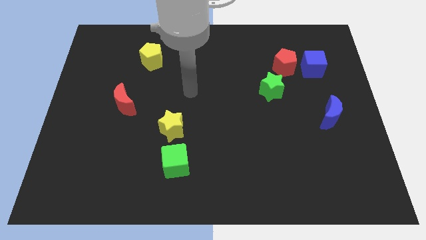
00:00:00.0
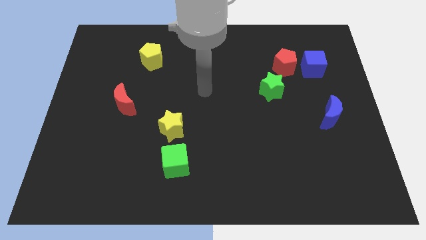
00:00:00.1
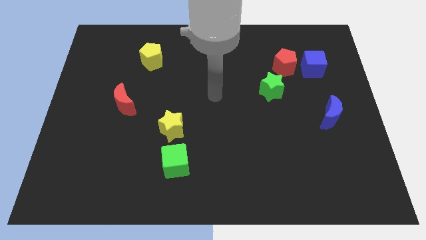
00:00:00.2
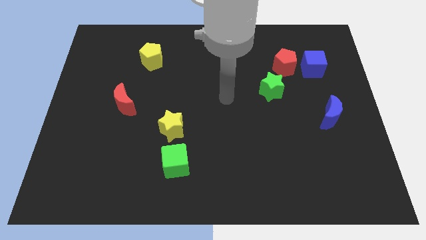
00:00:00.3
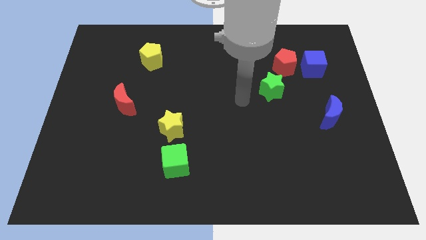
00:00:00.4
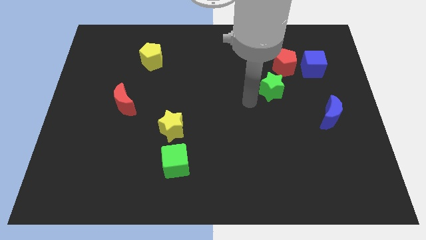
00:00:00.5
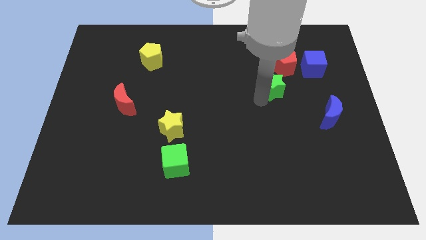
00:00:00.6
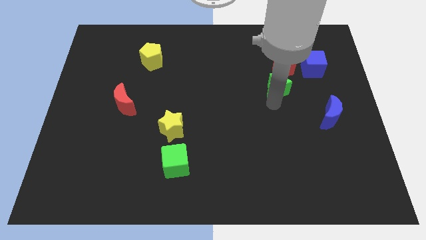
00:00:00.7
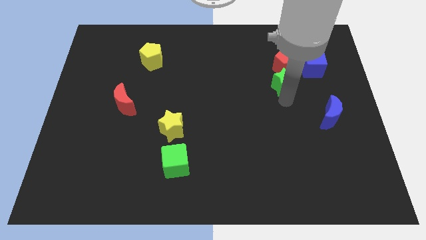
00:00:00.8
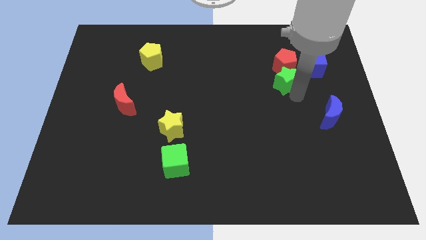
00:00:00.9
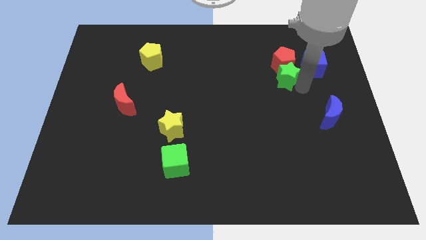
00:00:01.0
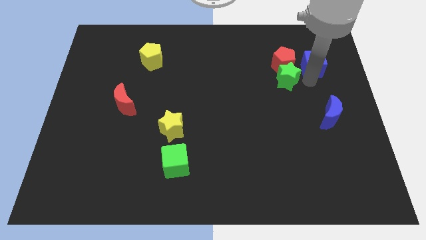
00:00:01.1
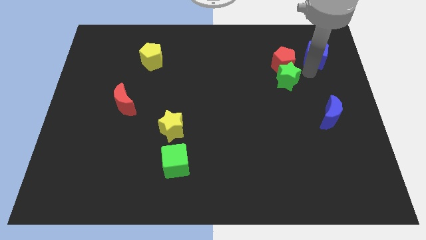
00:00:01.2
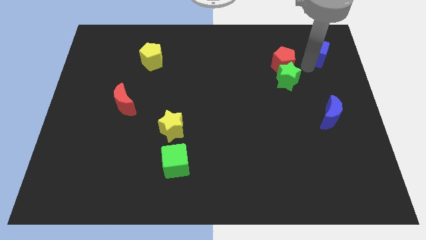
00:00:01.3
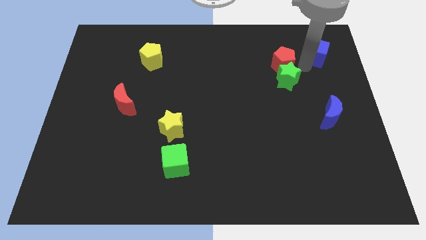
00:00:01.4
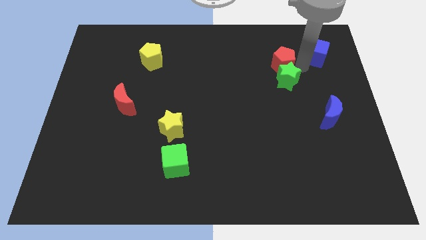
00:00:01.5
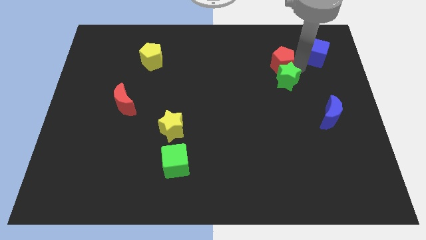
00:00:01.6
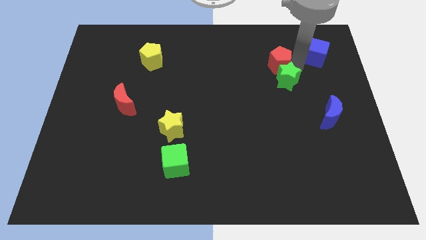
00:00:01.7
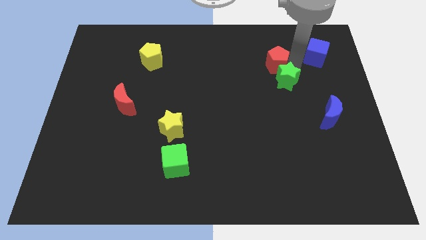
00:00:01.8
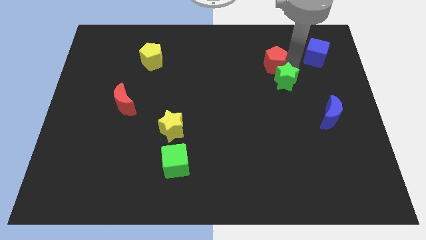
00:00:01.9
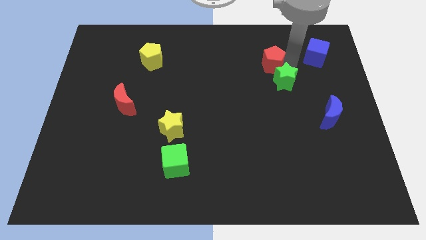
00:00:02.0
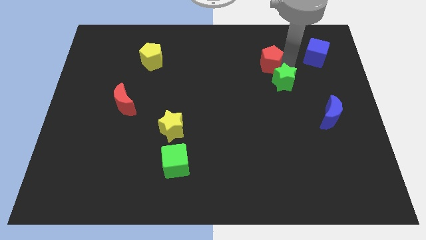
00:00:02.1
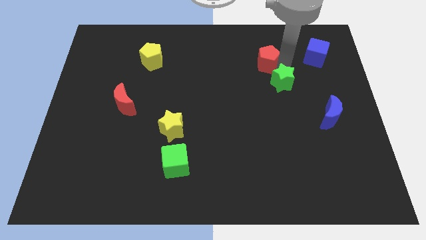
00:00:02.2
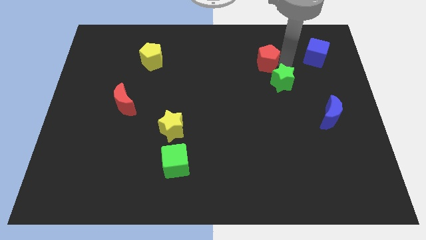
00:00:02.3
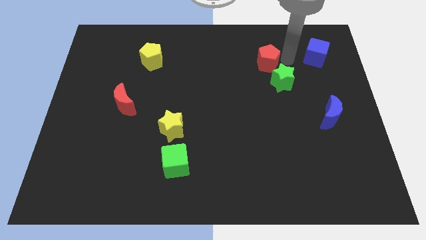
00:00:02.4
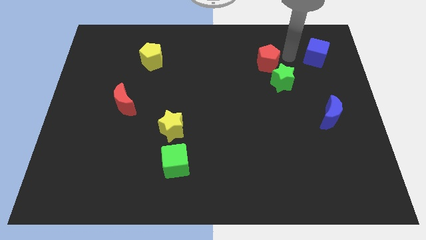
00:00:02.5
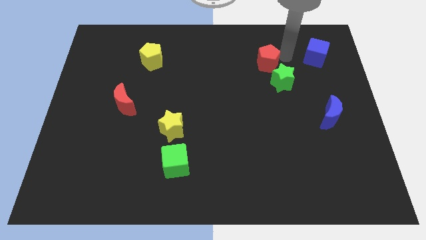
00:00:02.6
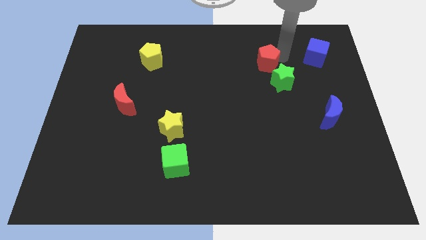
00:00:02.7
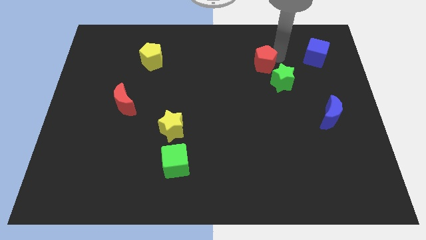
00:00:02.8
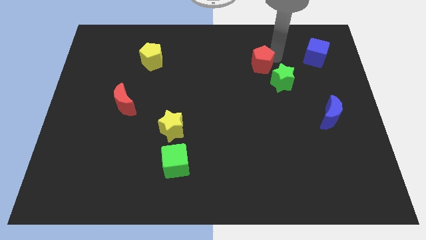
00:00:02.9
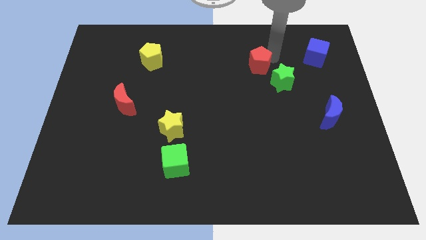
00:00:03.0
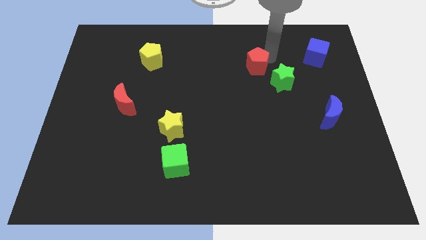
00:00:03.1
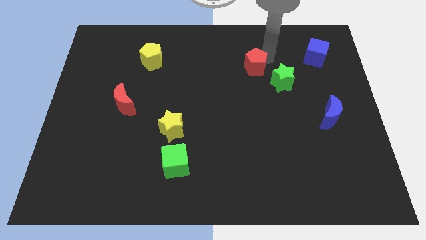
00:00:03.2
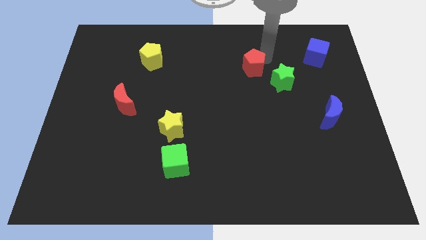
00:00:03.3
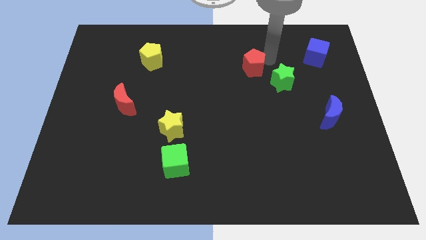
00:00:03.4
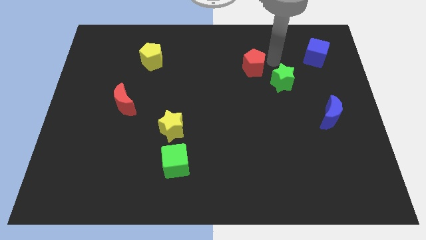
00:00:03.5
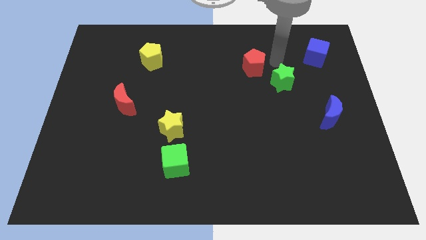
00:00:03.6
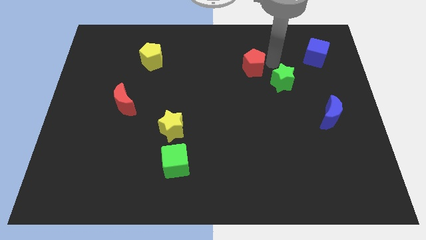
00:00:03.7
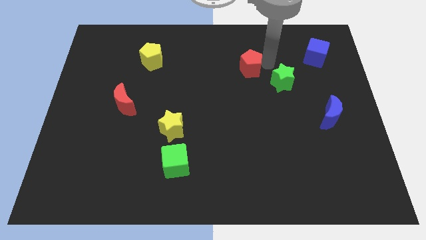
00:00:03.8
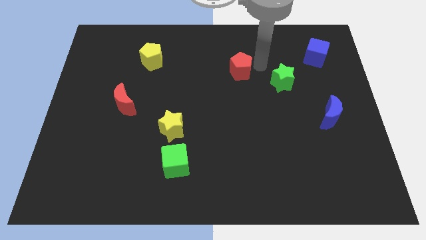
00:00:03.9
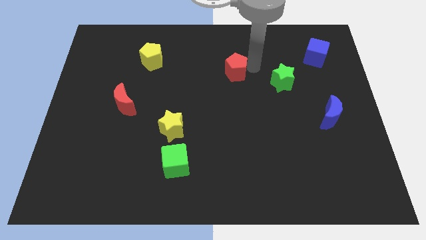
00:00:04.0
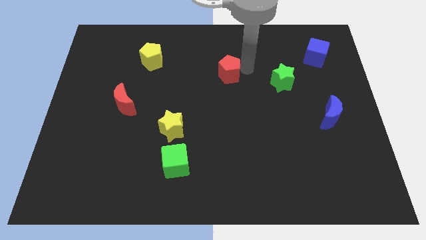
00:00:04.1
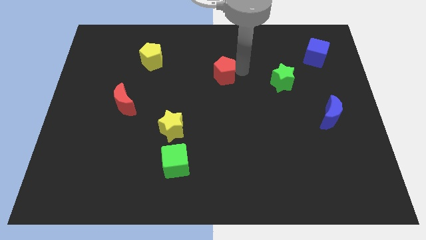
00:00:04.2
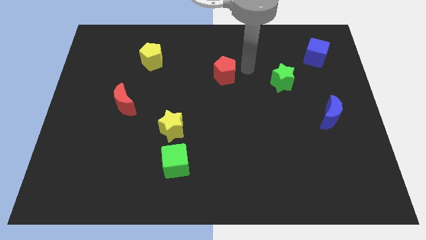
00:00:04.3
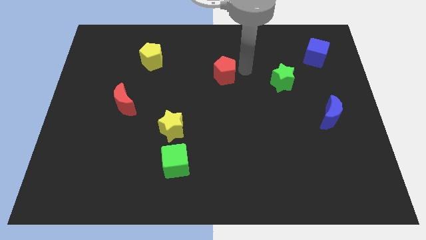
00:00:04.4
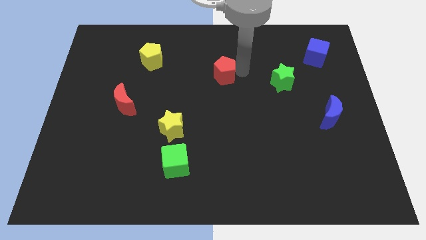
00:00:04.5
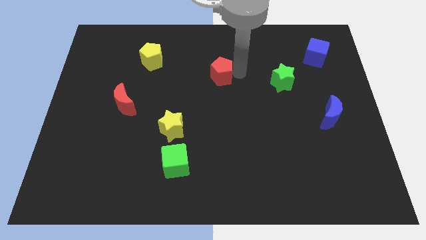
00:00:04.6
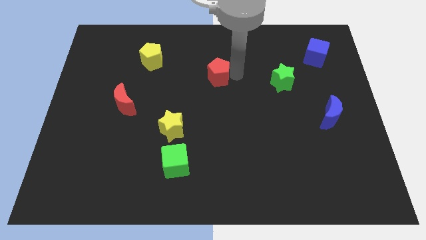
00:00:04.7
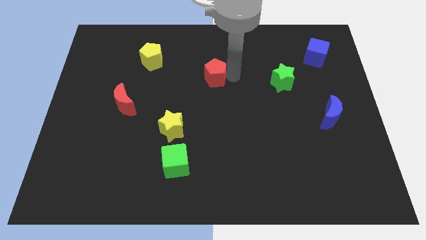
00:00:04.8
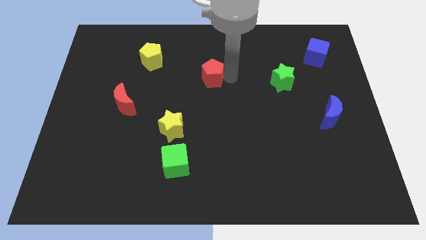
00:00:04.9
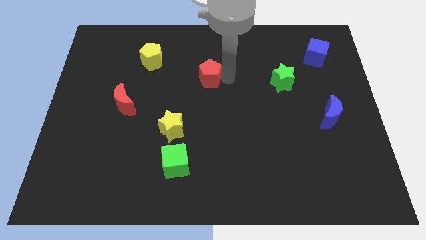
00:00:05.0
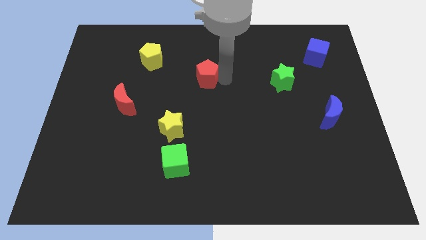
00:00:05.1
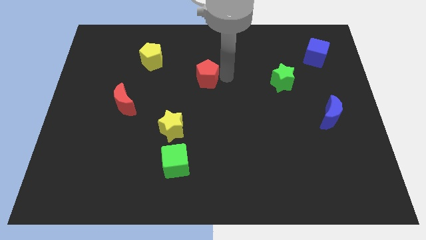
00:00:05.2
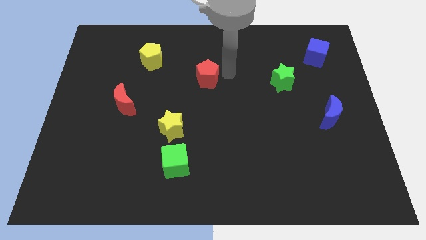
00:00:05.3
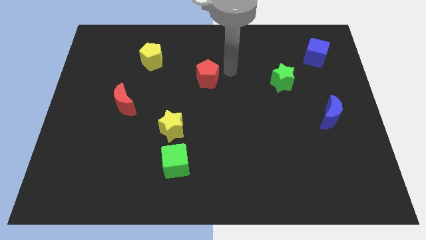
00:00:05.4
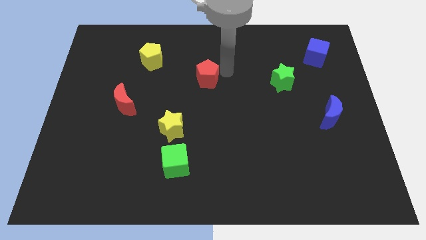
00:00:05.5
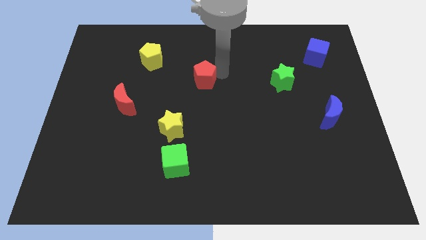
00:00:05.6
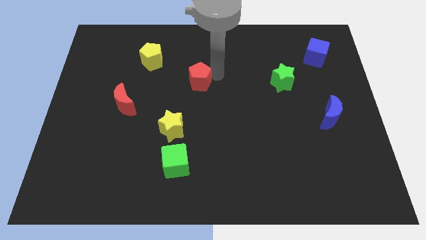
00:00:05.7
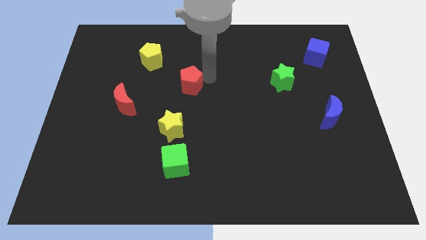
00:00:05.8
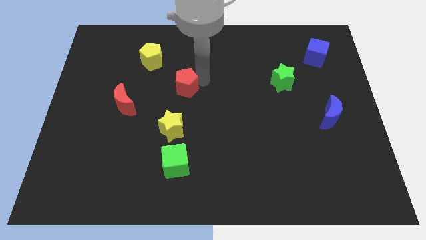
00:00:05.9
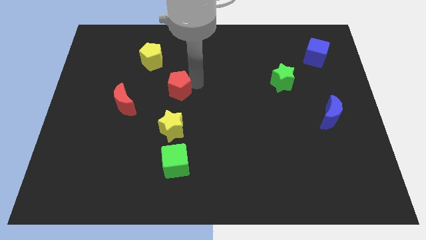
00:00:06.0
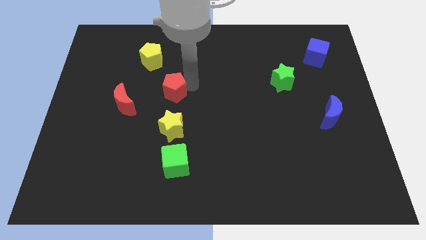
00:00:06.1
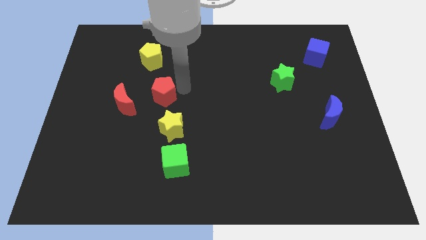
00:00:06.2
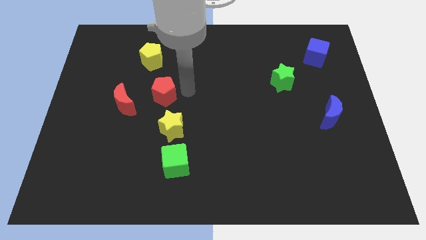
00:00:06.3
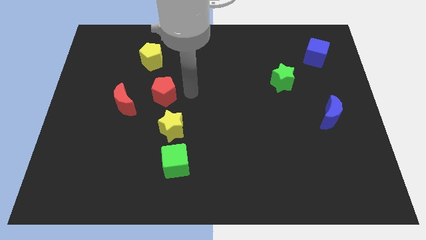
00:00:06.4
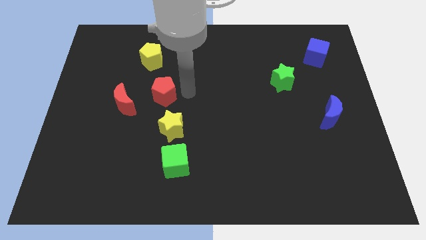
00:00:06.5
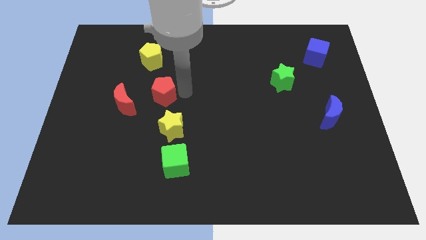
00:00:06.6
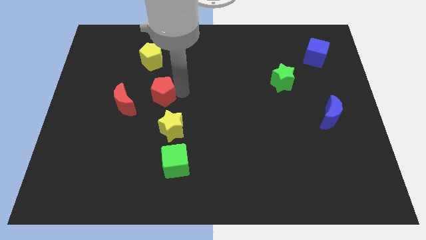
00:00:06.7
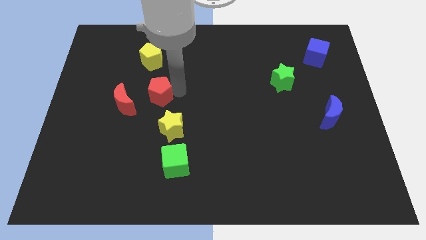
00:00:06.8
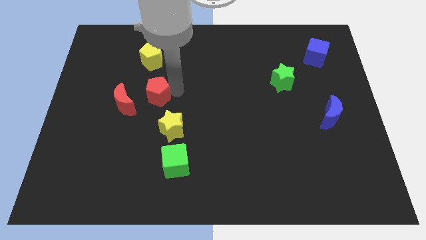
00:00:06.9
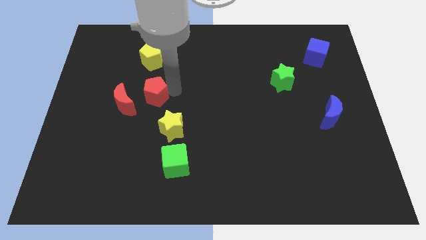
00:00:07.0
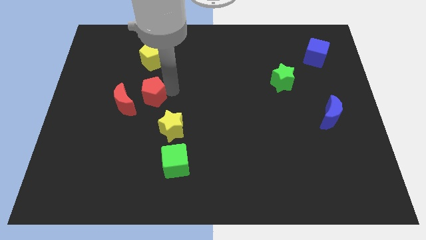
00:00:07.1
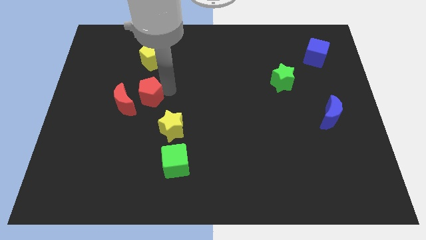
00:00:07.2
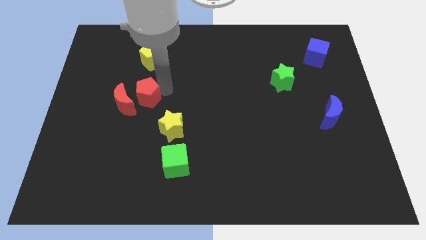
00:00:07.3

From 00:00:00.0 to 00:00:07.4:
slide the red pentagon close to the red moon
